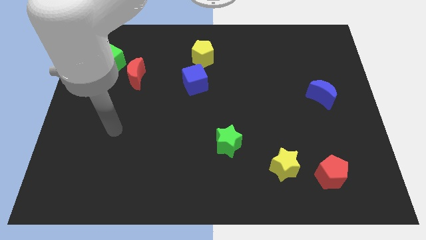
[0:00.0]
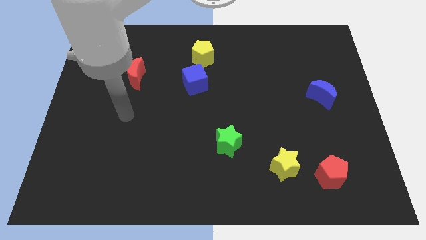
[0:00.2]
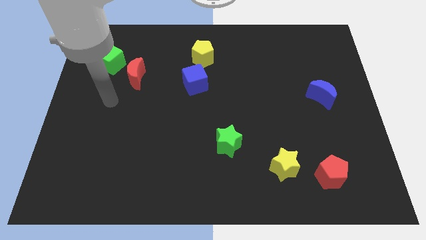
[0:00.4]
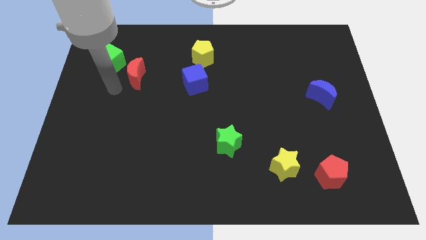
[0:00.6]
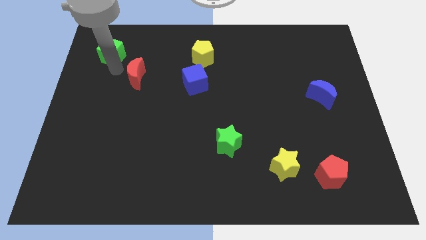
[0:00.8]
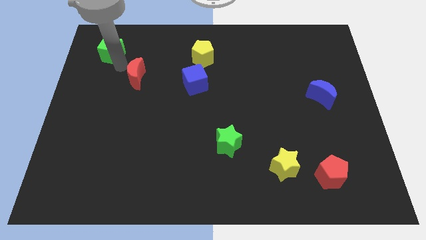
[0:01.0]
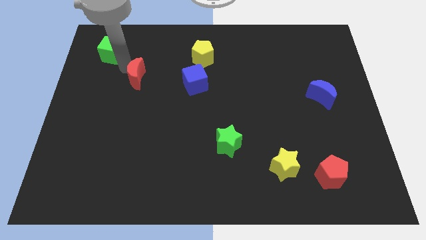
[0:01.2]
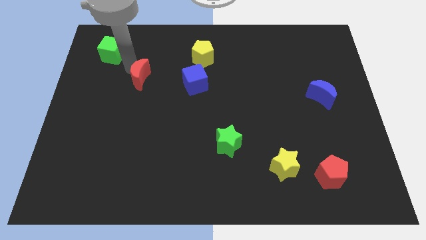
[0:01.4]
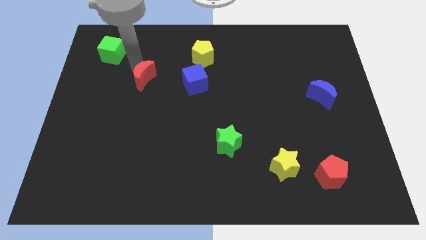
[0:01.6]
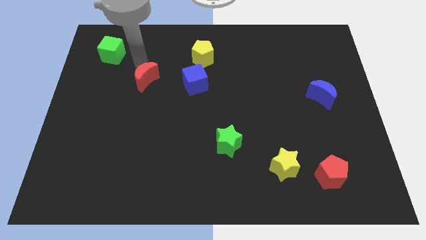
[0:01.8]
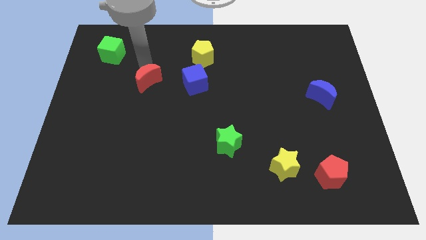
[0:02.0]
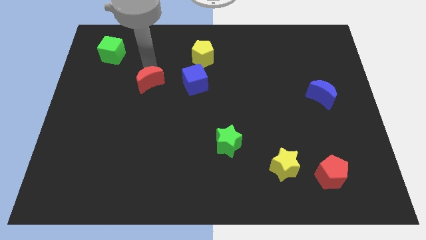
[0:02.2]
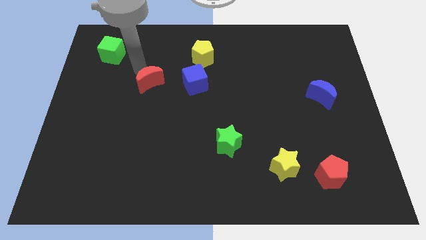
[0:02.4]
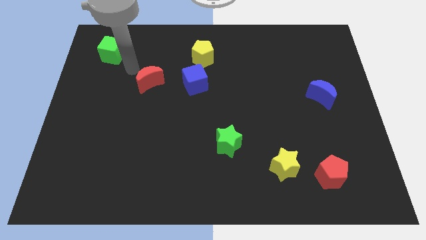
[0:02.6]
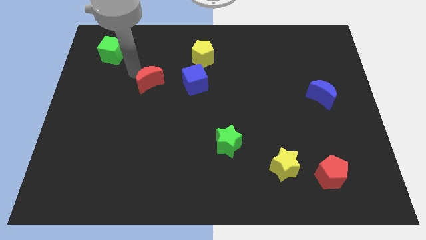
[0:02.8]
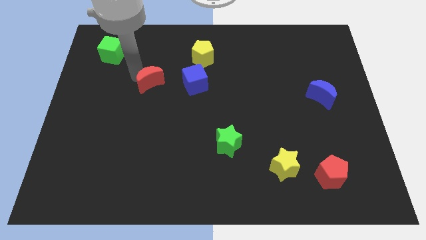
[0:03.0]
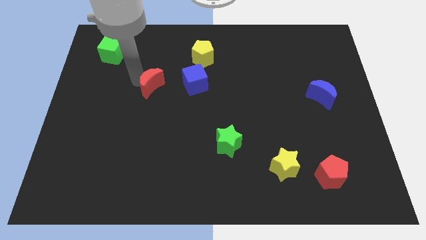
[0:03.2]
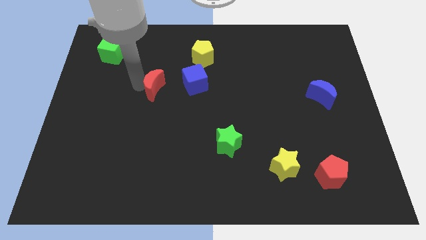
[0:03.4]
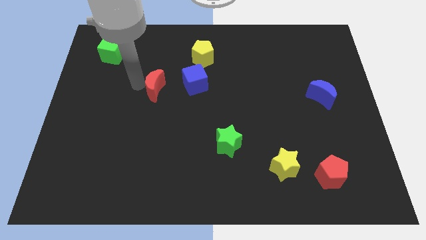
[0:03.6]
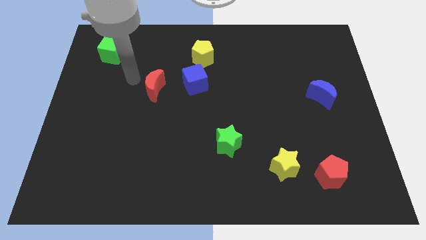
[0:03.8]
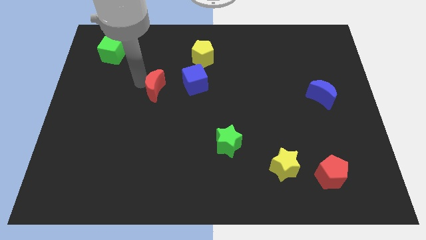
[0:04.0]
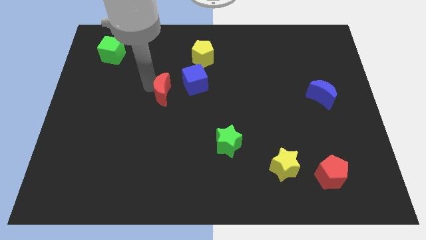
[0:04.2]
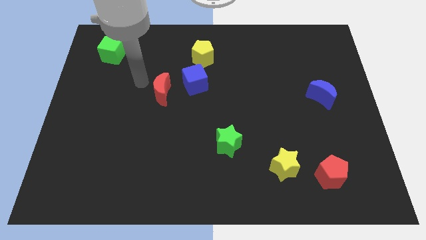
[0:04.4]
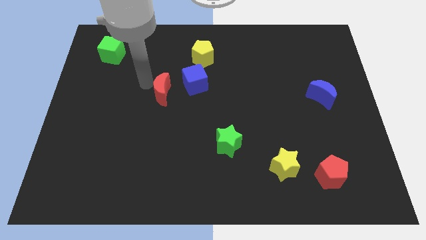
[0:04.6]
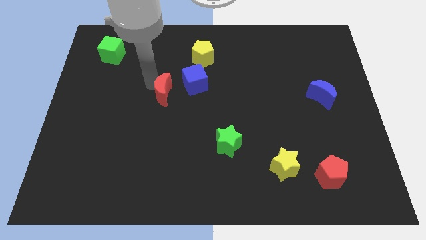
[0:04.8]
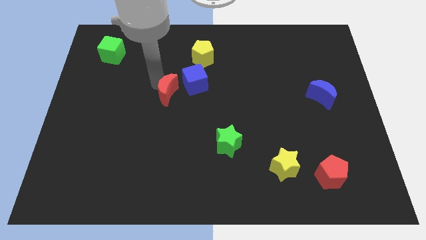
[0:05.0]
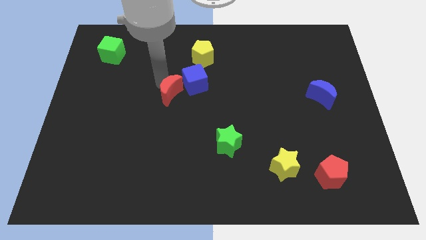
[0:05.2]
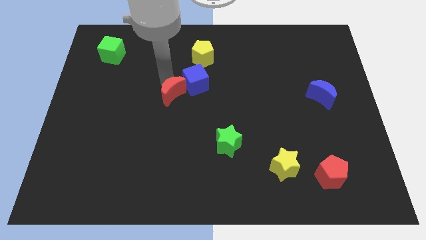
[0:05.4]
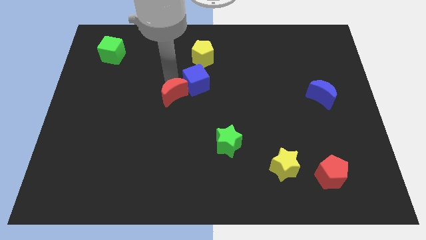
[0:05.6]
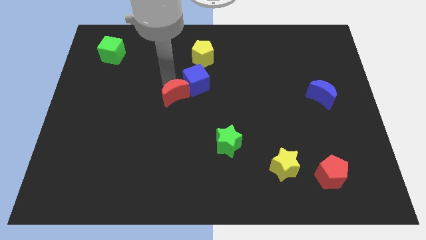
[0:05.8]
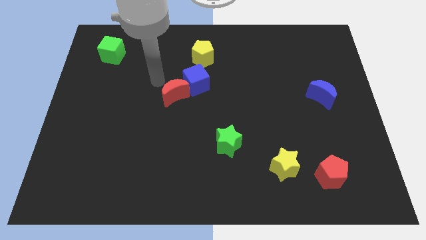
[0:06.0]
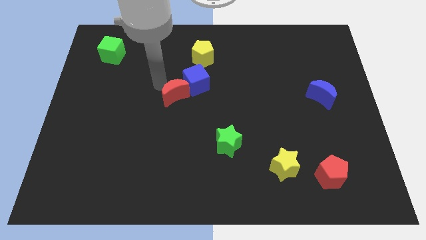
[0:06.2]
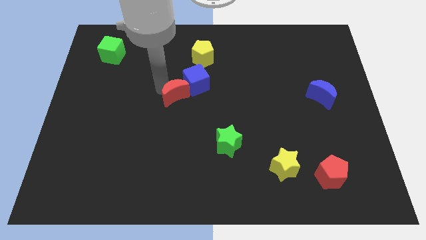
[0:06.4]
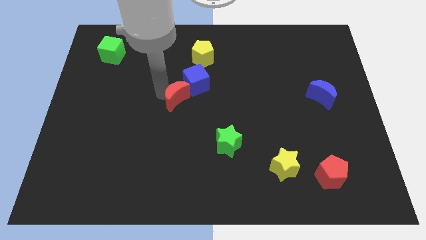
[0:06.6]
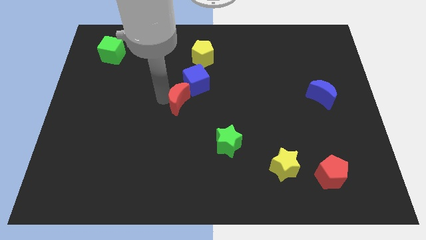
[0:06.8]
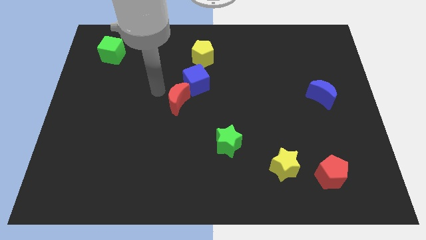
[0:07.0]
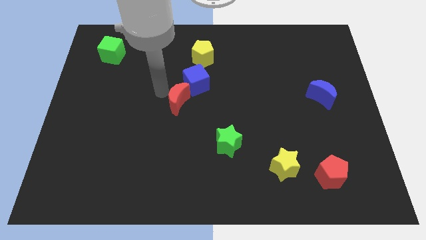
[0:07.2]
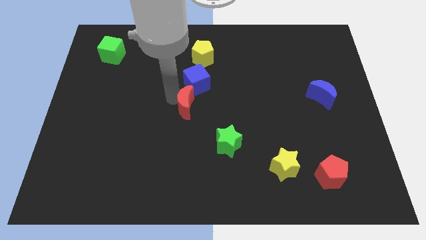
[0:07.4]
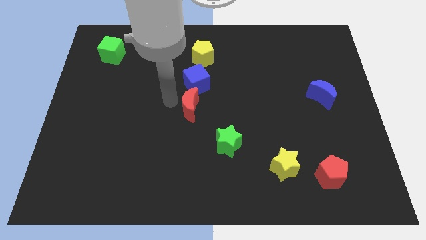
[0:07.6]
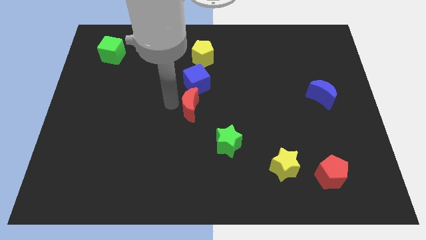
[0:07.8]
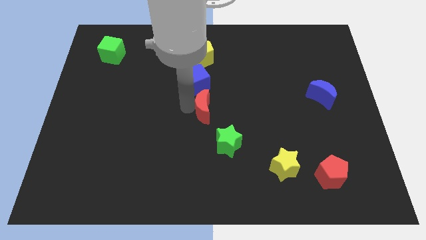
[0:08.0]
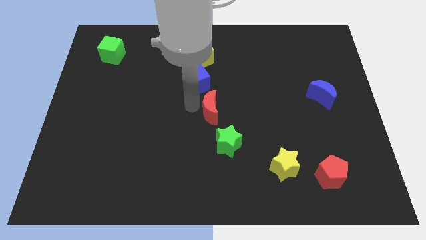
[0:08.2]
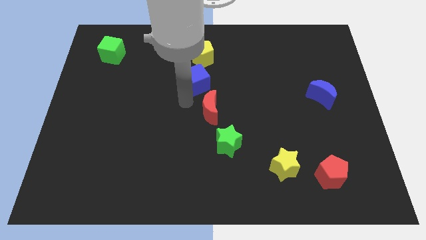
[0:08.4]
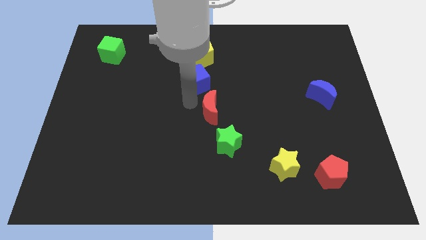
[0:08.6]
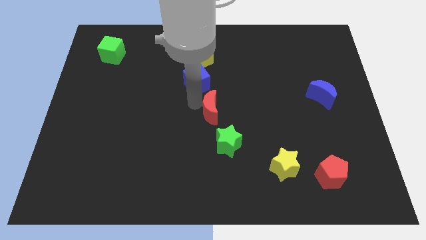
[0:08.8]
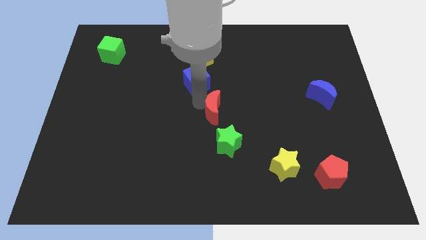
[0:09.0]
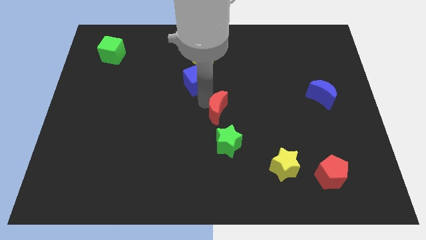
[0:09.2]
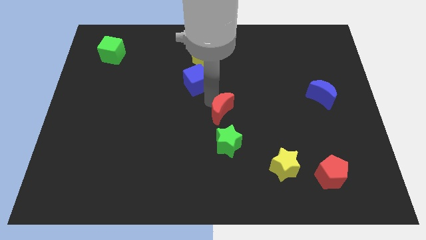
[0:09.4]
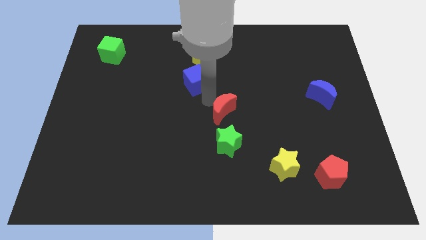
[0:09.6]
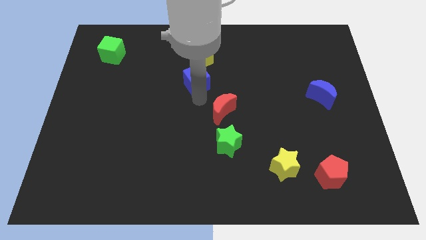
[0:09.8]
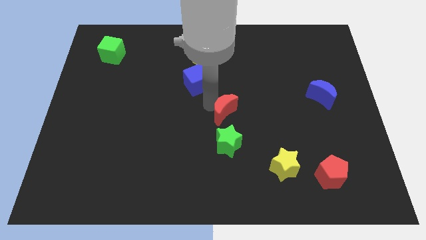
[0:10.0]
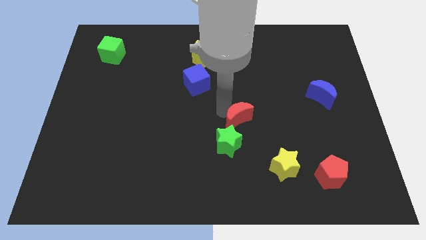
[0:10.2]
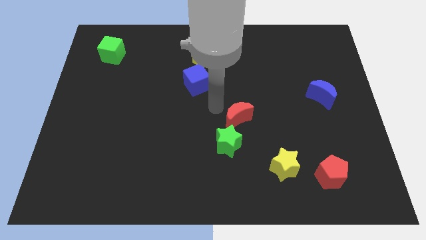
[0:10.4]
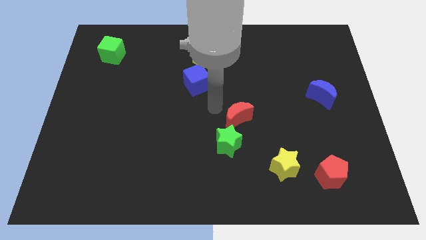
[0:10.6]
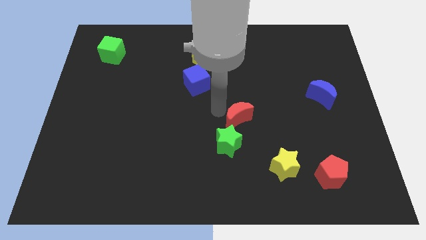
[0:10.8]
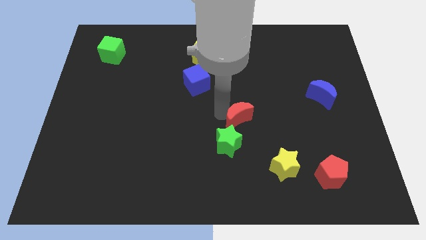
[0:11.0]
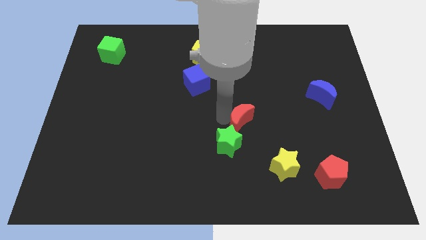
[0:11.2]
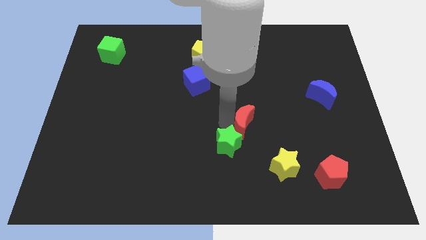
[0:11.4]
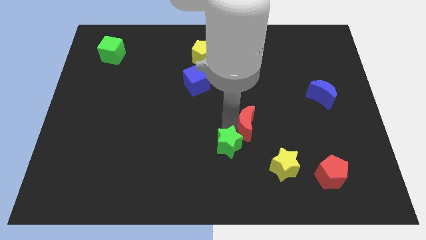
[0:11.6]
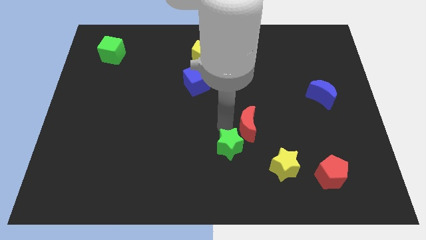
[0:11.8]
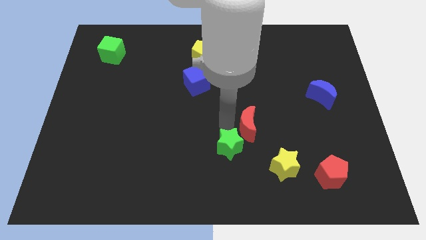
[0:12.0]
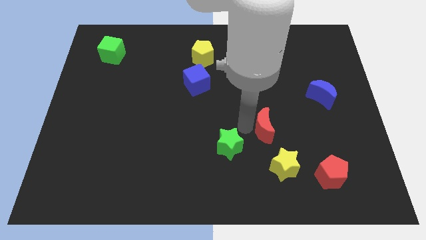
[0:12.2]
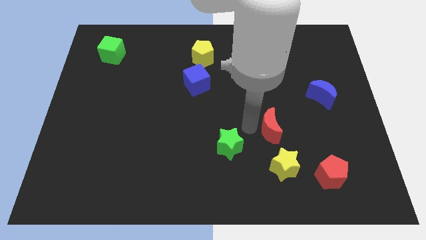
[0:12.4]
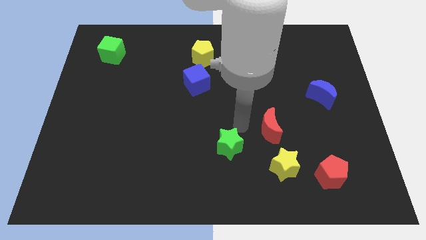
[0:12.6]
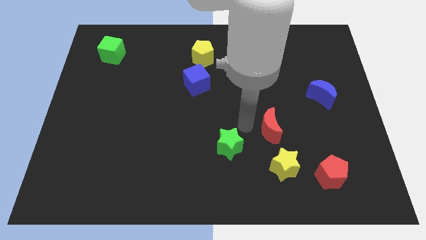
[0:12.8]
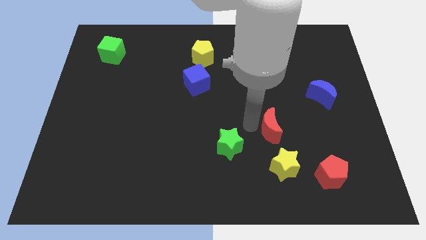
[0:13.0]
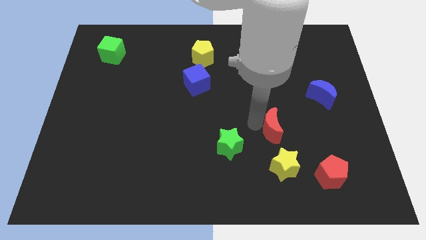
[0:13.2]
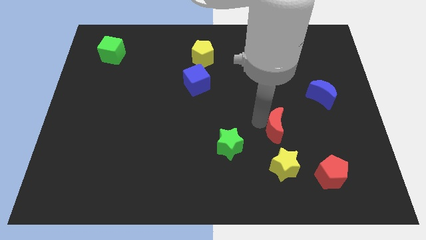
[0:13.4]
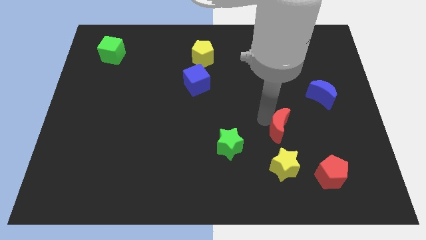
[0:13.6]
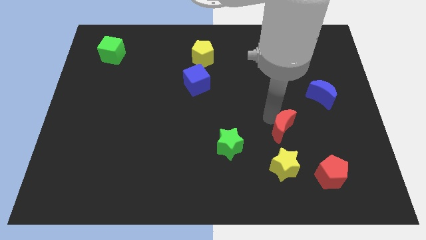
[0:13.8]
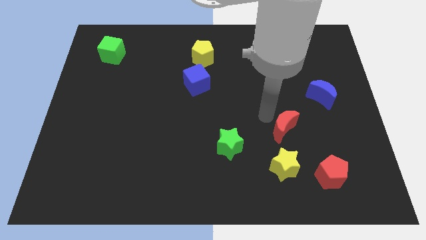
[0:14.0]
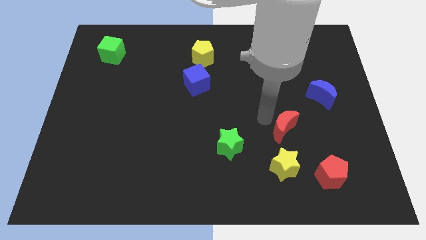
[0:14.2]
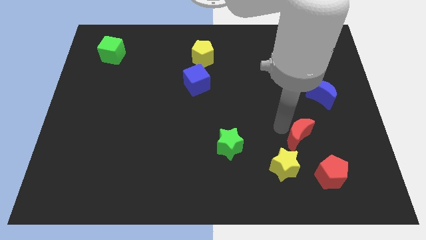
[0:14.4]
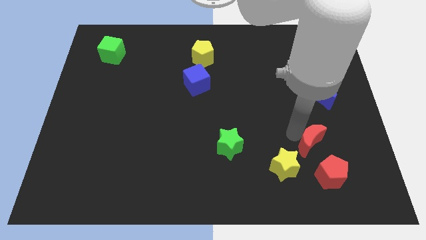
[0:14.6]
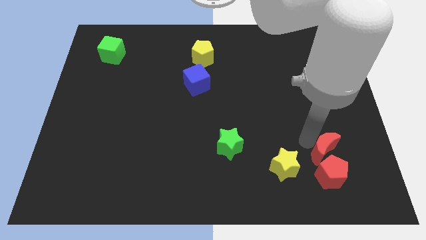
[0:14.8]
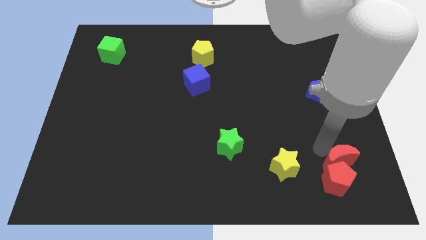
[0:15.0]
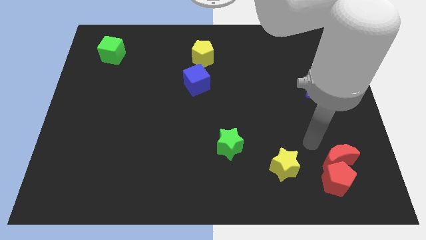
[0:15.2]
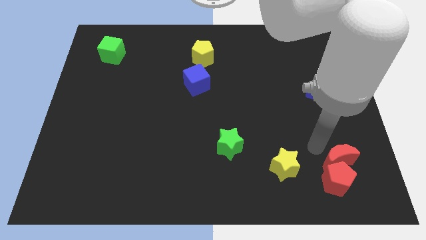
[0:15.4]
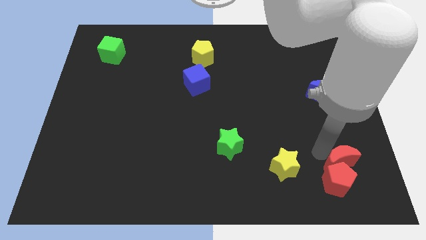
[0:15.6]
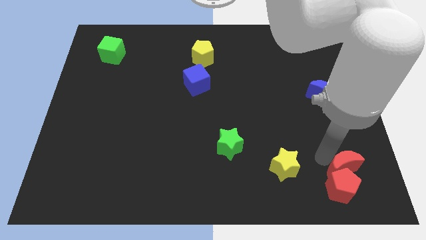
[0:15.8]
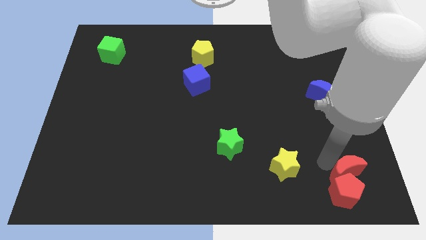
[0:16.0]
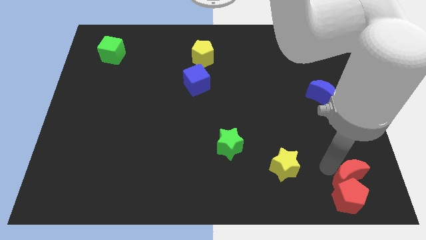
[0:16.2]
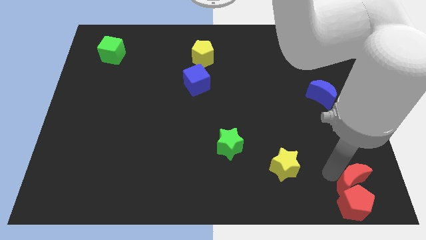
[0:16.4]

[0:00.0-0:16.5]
push the red moon to the bottom right of the board
